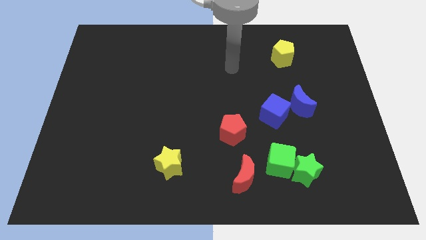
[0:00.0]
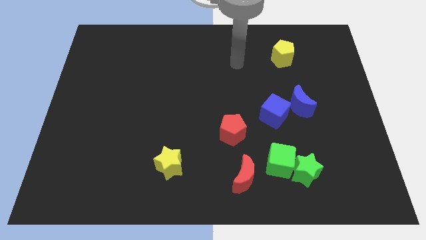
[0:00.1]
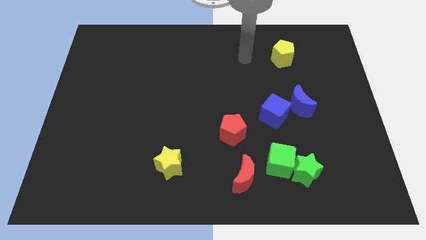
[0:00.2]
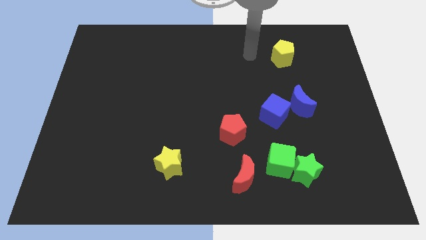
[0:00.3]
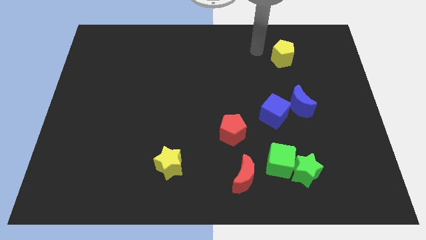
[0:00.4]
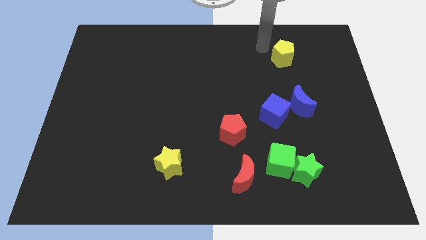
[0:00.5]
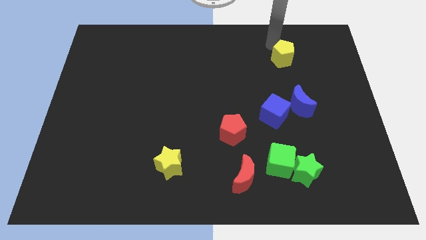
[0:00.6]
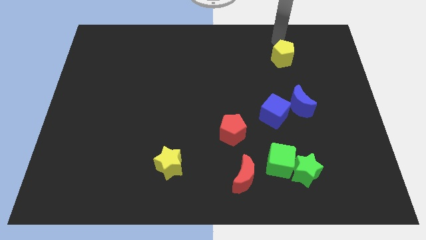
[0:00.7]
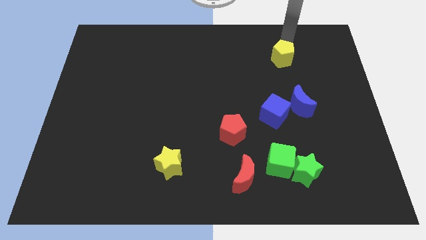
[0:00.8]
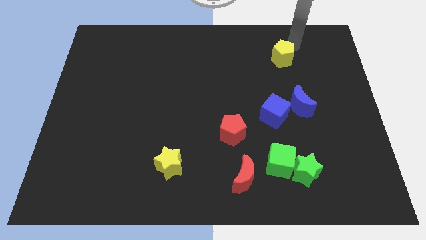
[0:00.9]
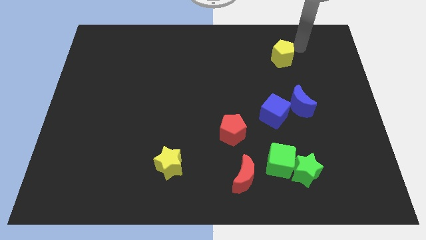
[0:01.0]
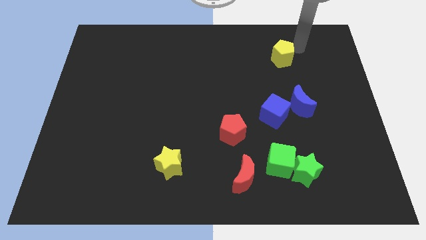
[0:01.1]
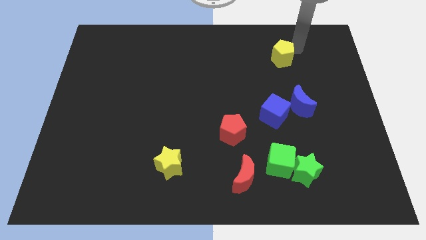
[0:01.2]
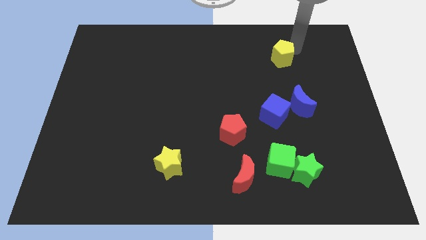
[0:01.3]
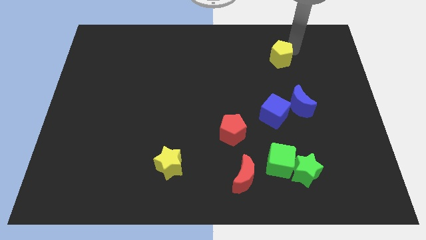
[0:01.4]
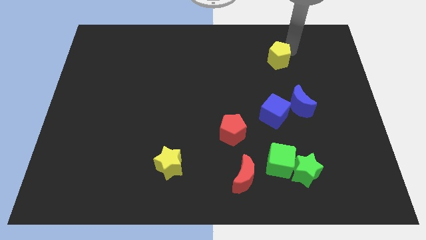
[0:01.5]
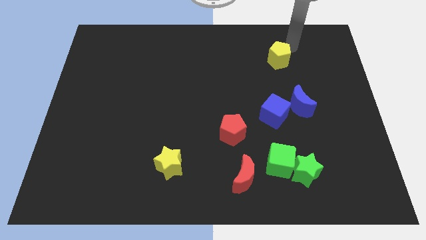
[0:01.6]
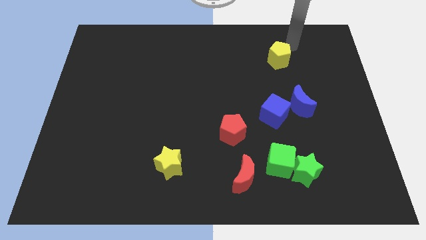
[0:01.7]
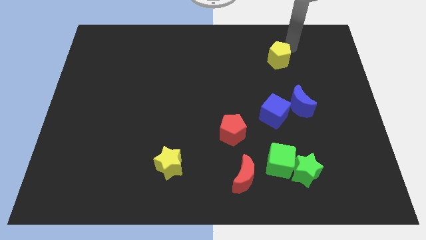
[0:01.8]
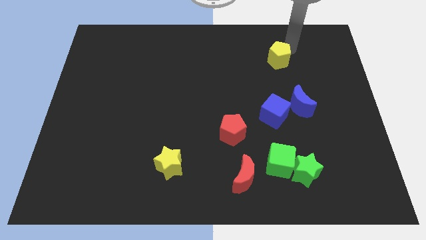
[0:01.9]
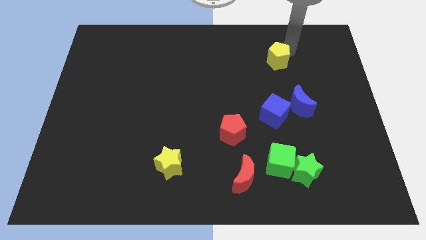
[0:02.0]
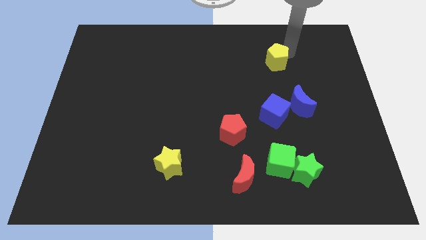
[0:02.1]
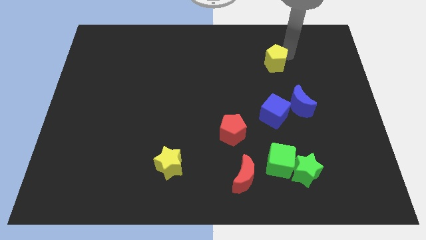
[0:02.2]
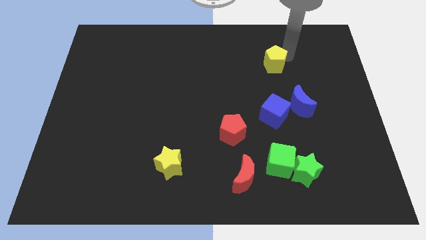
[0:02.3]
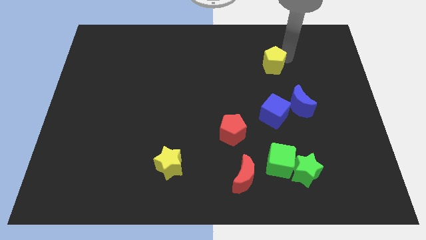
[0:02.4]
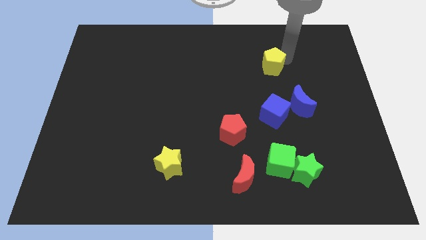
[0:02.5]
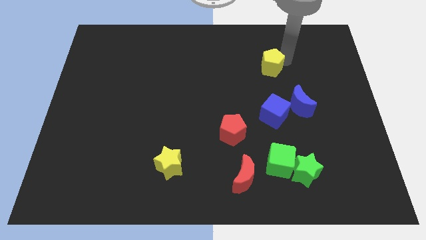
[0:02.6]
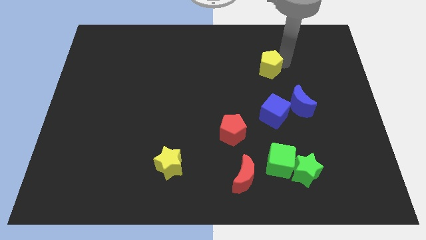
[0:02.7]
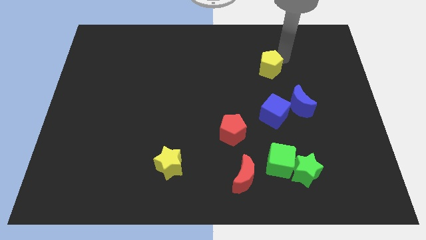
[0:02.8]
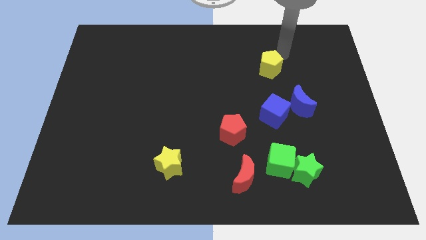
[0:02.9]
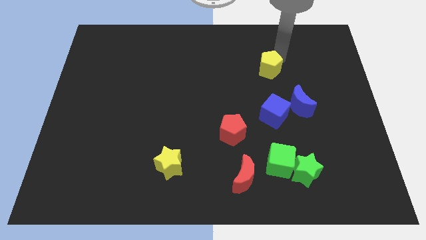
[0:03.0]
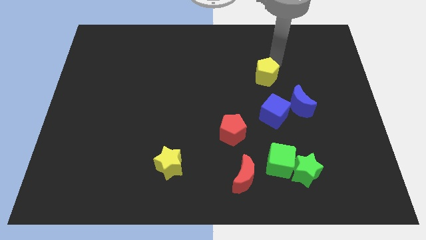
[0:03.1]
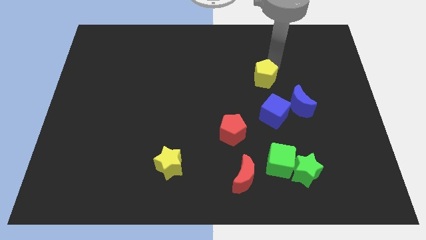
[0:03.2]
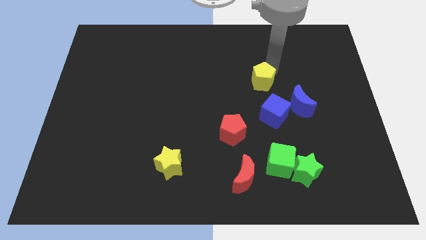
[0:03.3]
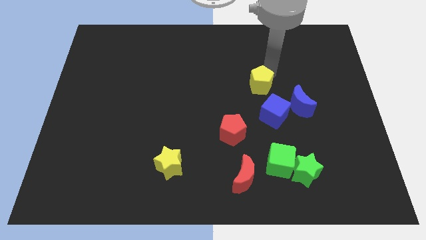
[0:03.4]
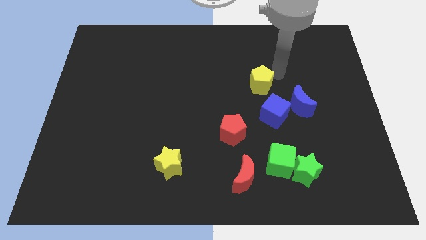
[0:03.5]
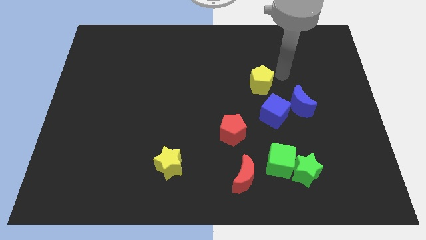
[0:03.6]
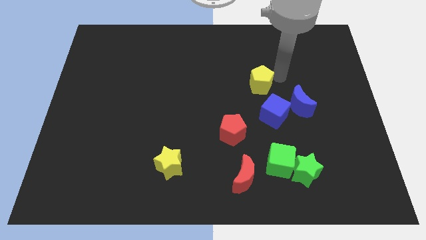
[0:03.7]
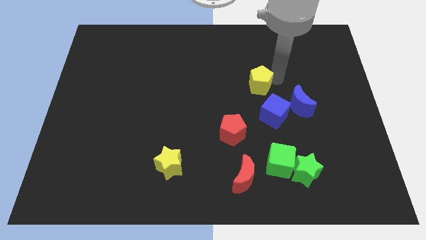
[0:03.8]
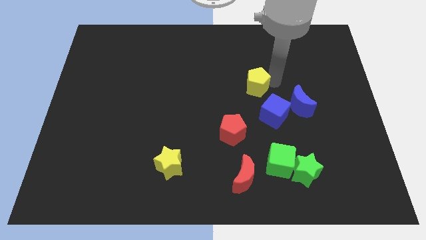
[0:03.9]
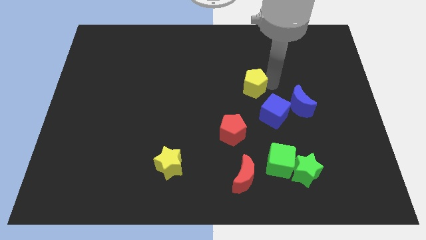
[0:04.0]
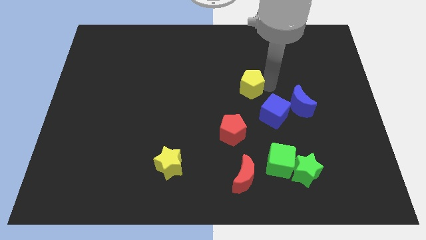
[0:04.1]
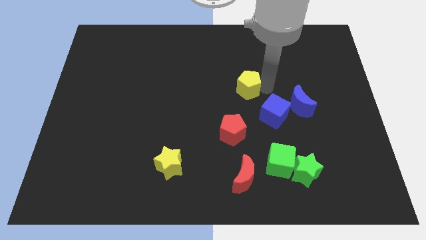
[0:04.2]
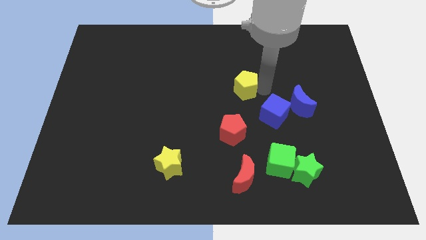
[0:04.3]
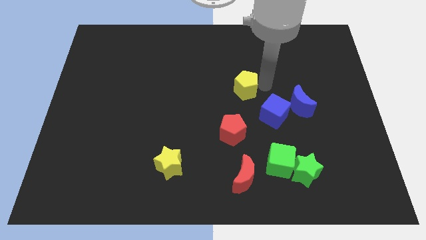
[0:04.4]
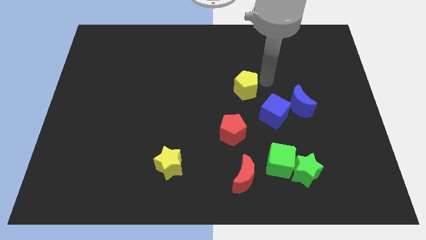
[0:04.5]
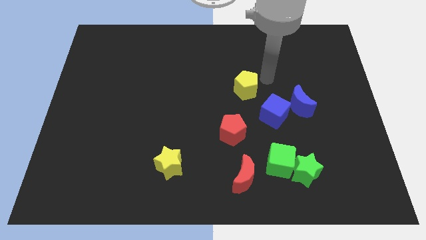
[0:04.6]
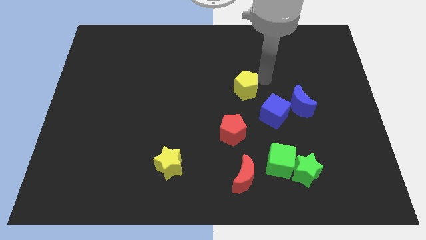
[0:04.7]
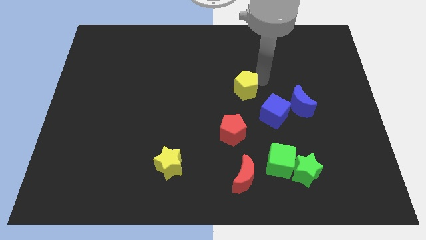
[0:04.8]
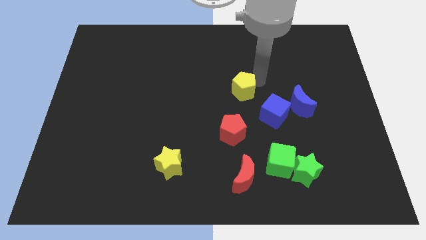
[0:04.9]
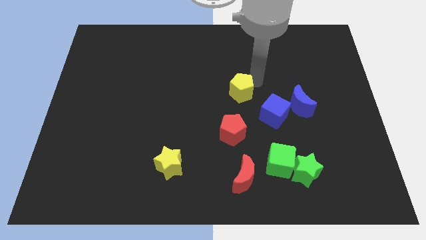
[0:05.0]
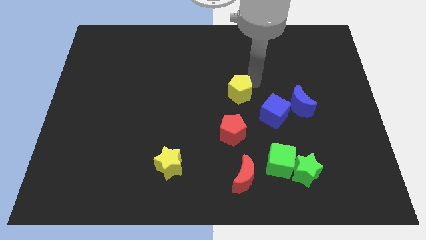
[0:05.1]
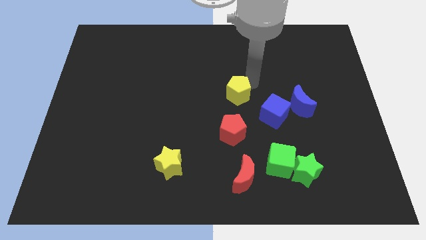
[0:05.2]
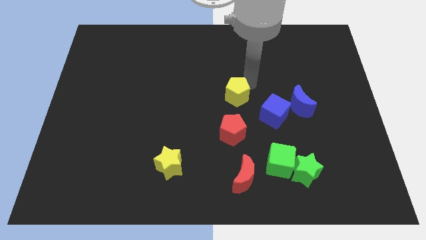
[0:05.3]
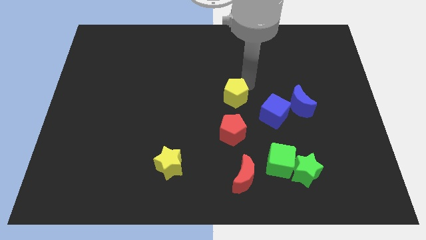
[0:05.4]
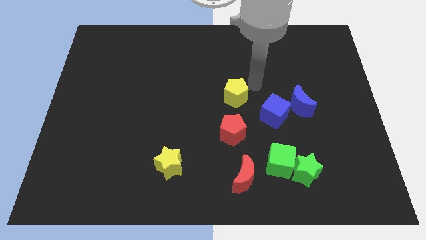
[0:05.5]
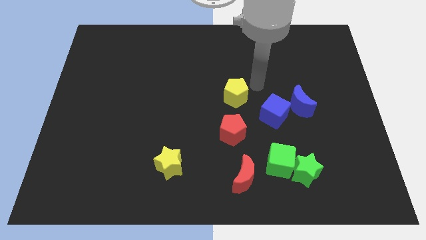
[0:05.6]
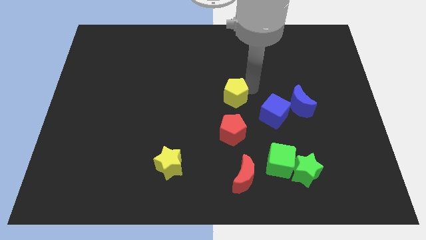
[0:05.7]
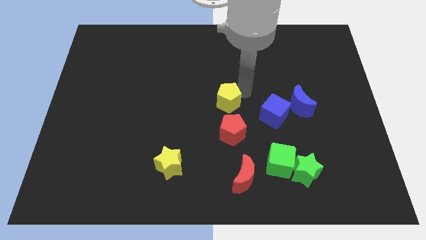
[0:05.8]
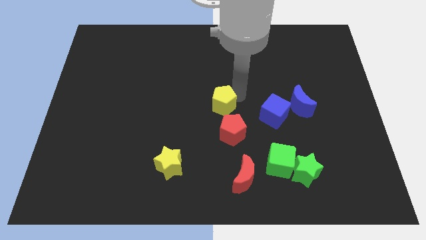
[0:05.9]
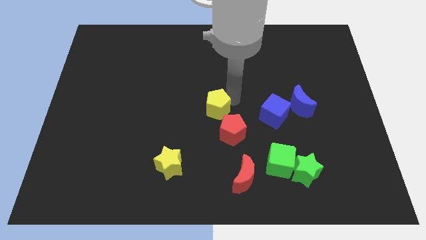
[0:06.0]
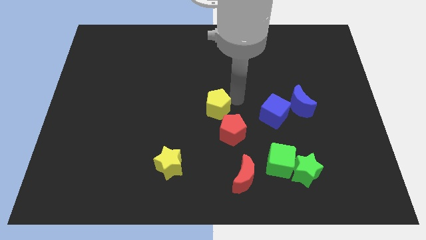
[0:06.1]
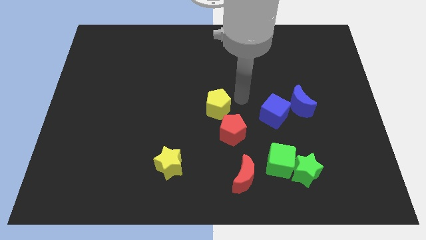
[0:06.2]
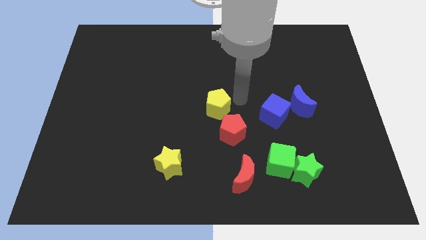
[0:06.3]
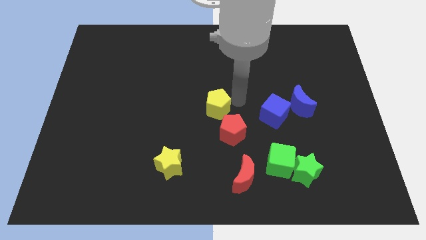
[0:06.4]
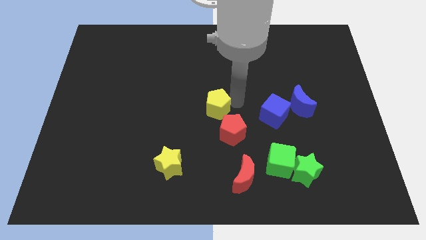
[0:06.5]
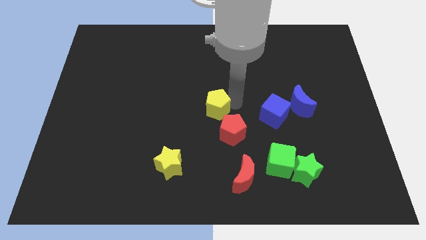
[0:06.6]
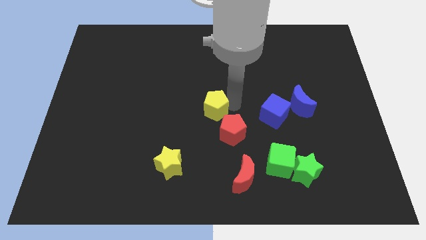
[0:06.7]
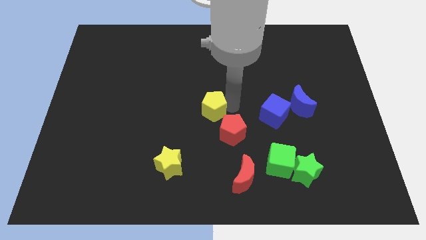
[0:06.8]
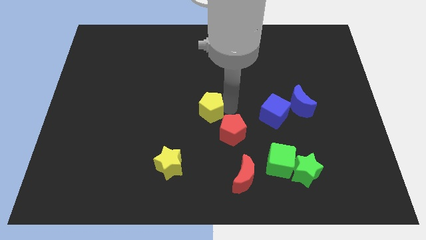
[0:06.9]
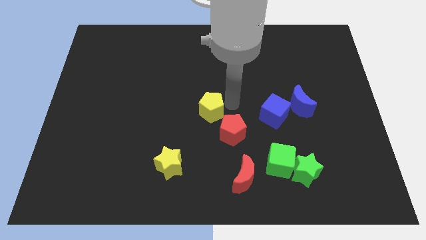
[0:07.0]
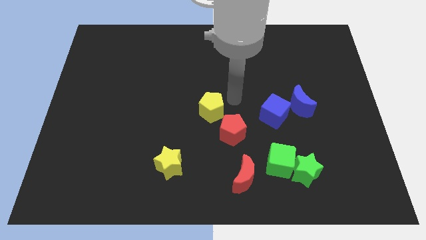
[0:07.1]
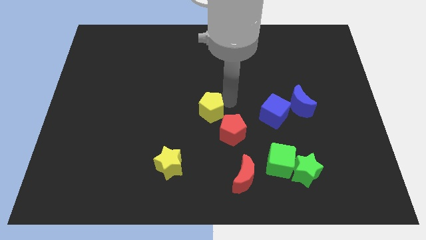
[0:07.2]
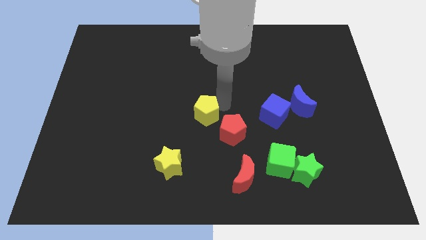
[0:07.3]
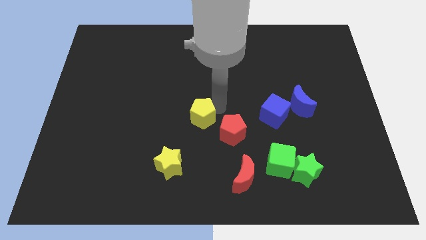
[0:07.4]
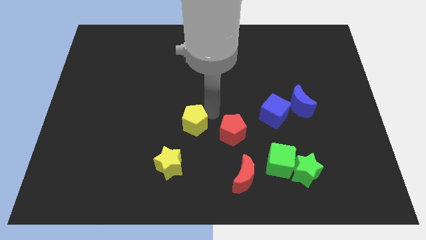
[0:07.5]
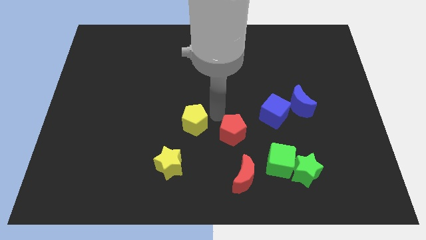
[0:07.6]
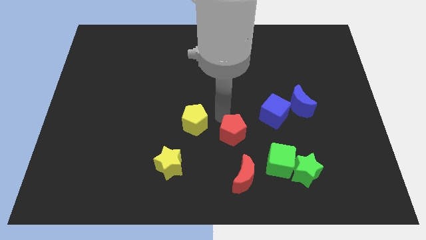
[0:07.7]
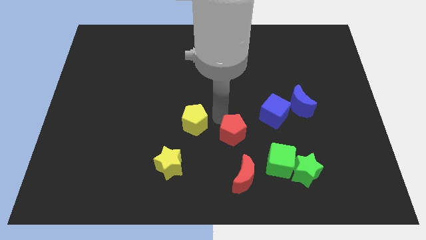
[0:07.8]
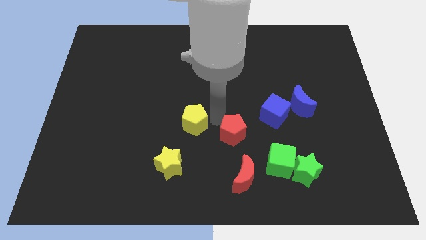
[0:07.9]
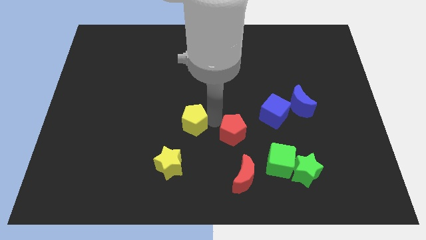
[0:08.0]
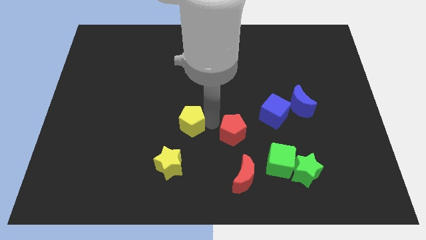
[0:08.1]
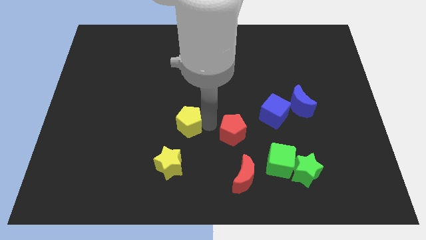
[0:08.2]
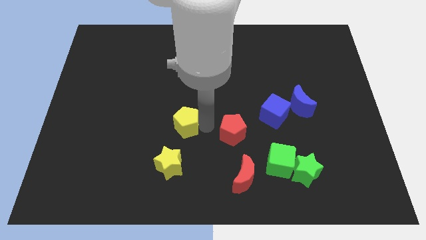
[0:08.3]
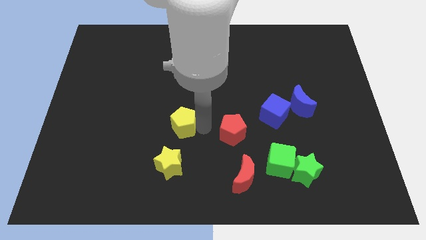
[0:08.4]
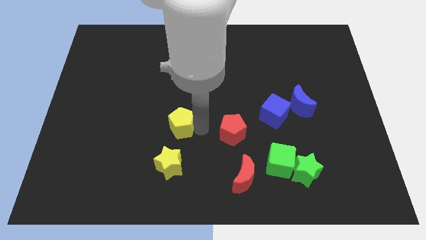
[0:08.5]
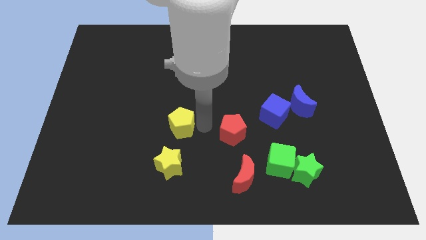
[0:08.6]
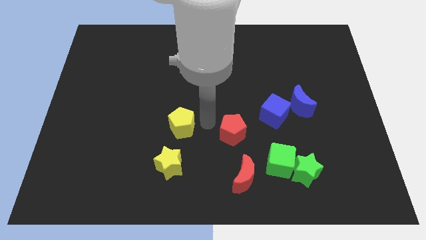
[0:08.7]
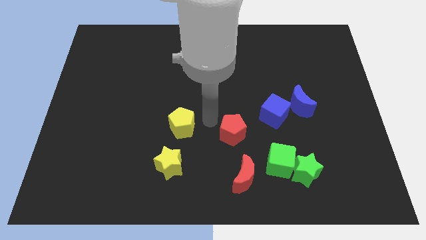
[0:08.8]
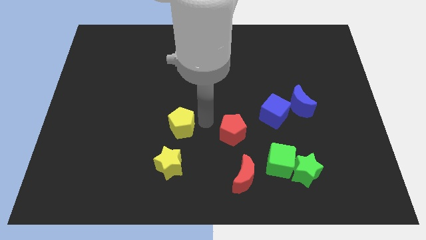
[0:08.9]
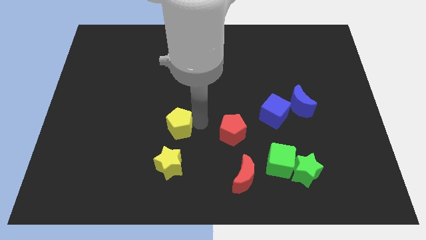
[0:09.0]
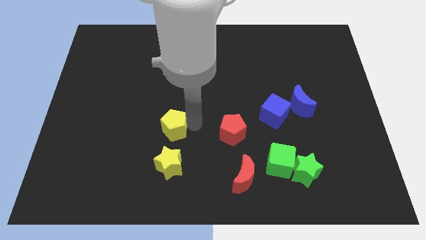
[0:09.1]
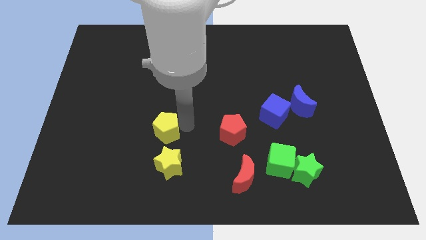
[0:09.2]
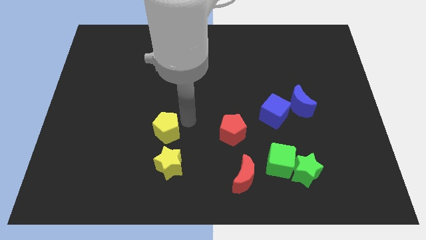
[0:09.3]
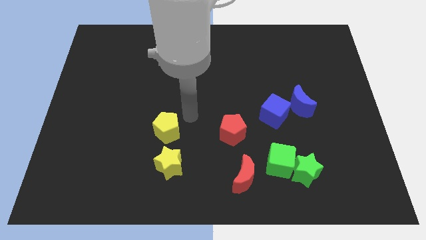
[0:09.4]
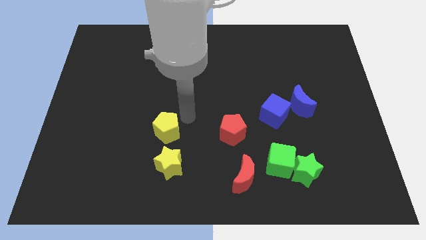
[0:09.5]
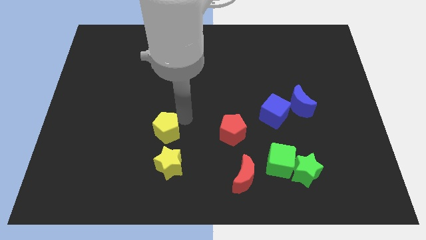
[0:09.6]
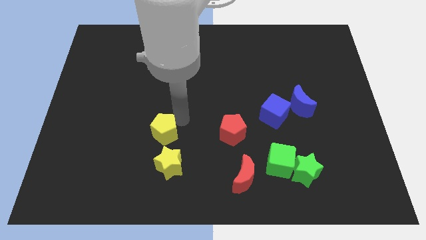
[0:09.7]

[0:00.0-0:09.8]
move the yellow pentagon to the top left of the yellow star
